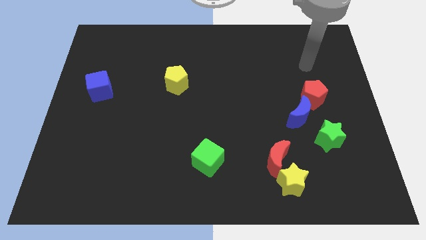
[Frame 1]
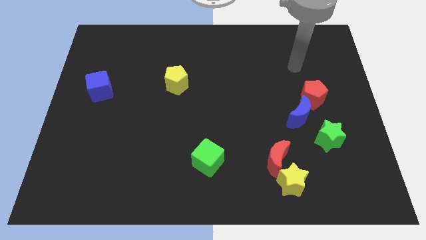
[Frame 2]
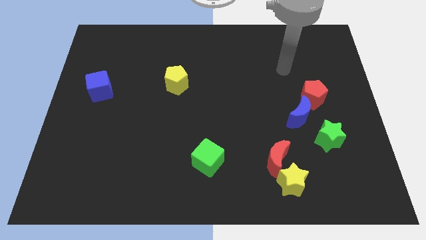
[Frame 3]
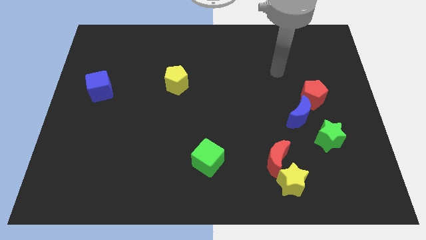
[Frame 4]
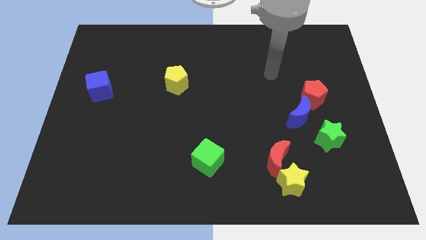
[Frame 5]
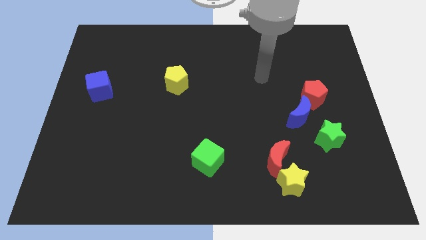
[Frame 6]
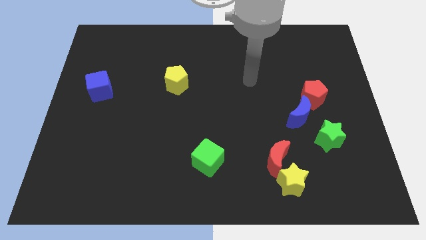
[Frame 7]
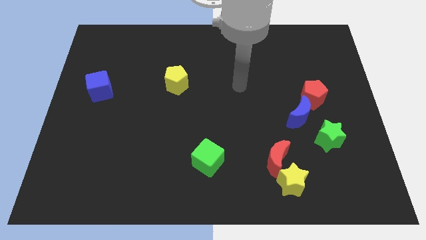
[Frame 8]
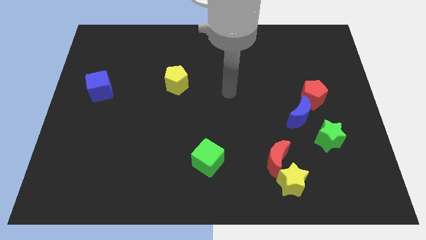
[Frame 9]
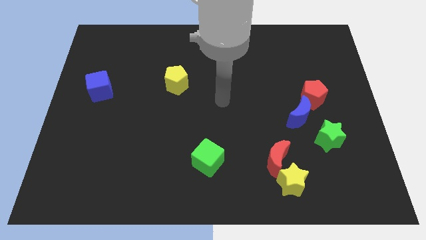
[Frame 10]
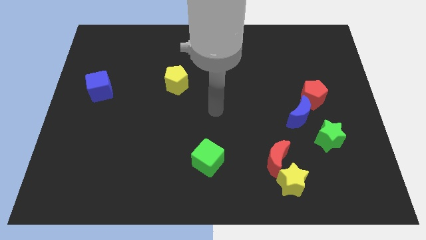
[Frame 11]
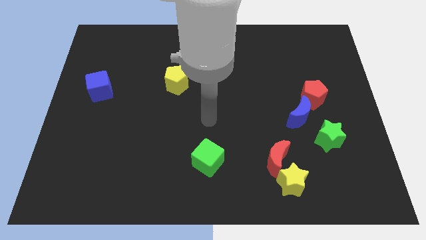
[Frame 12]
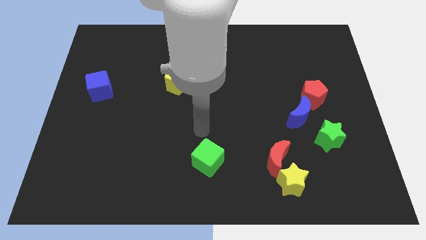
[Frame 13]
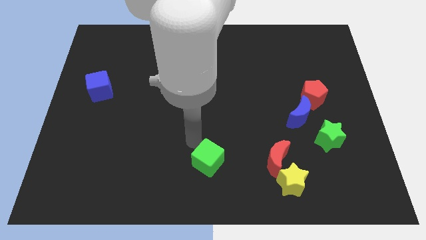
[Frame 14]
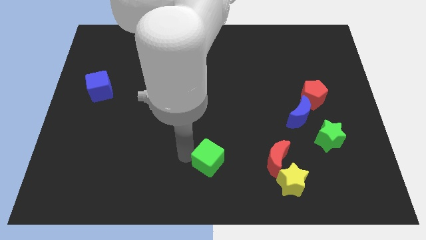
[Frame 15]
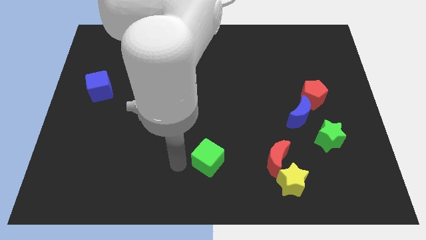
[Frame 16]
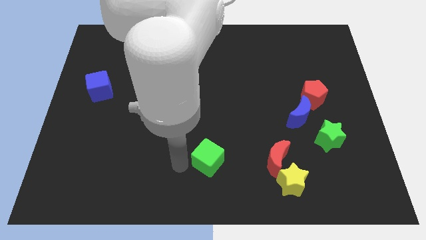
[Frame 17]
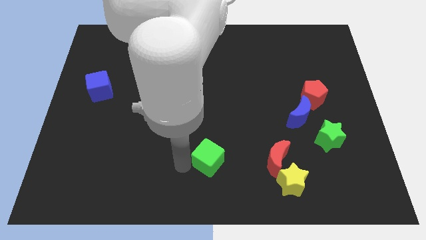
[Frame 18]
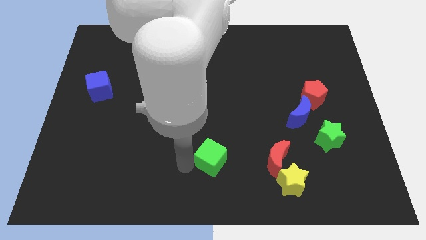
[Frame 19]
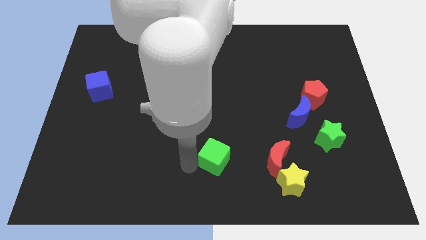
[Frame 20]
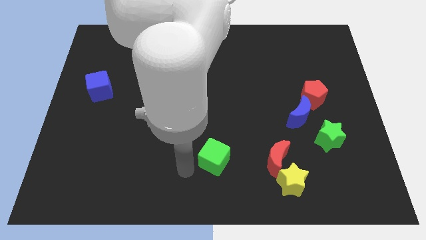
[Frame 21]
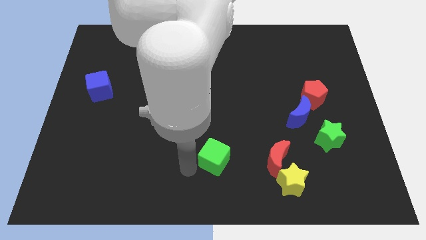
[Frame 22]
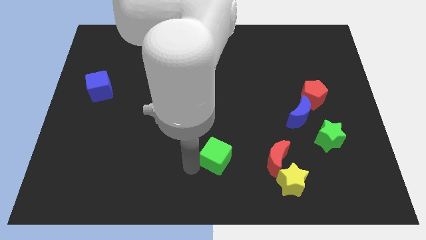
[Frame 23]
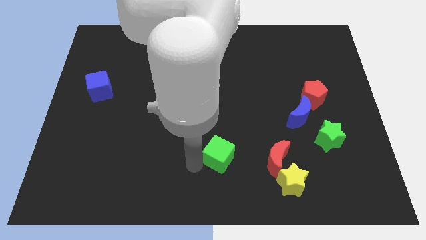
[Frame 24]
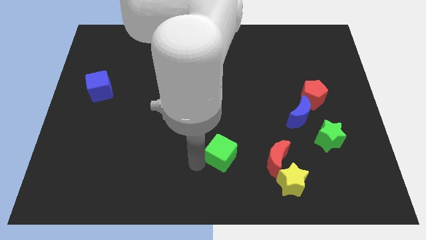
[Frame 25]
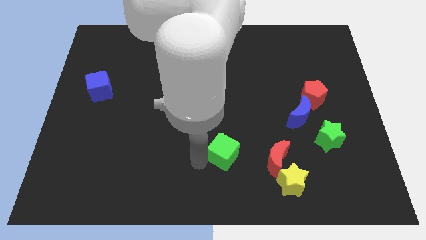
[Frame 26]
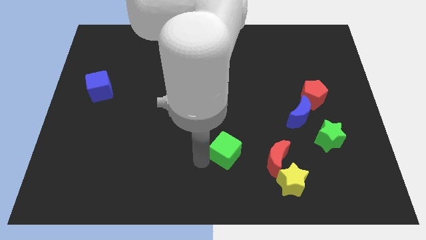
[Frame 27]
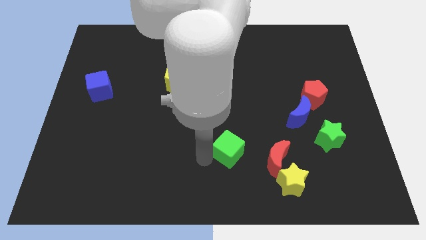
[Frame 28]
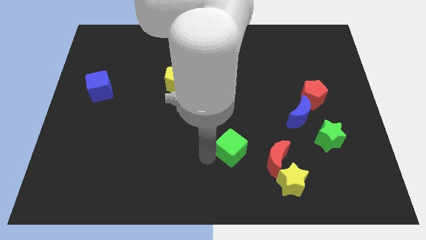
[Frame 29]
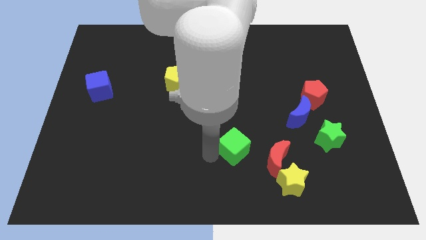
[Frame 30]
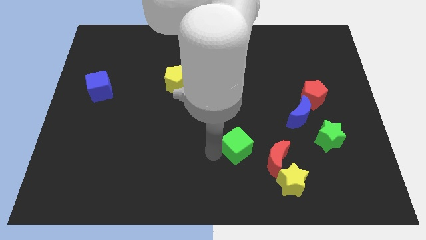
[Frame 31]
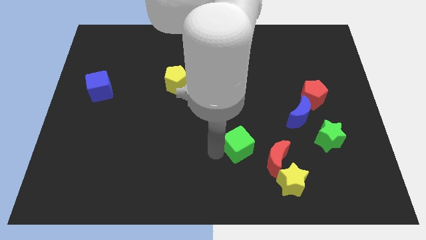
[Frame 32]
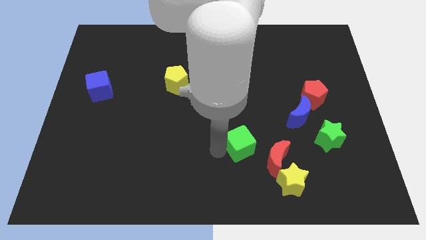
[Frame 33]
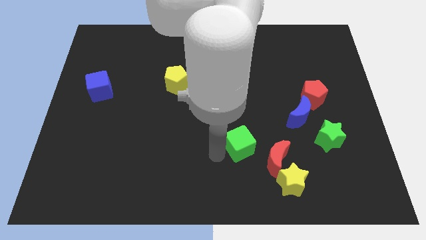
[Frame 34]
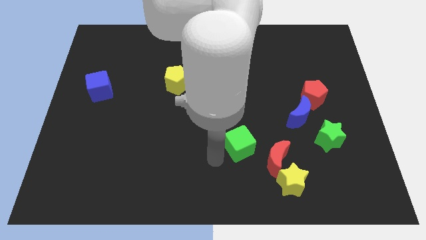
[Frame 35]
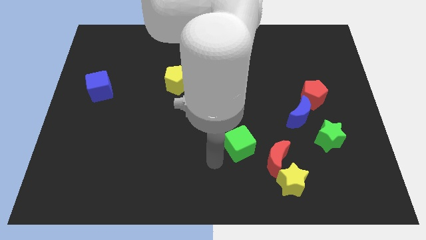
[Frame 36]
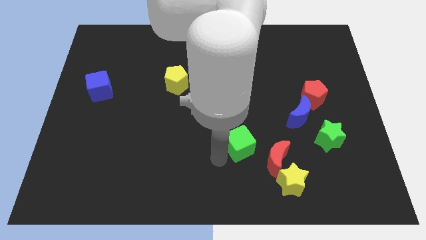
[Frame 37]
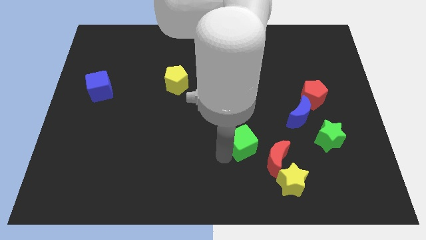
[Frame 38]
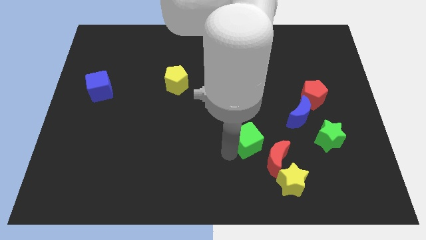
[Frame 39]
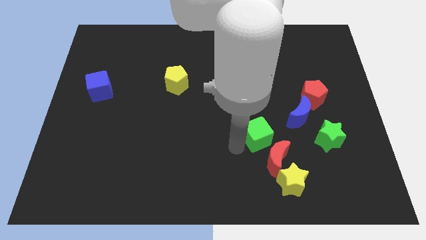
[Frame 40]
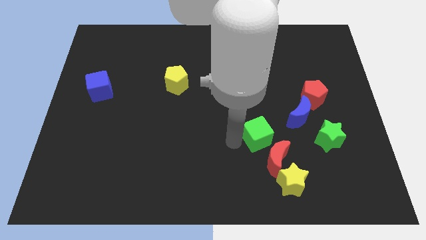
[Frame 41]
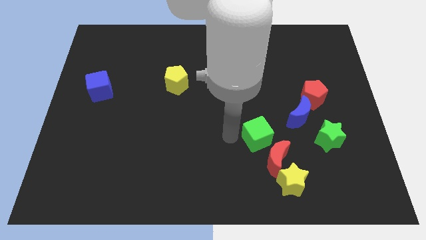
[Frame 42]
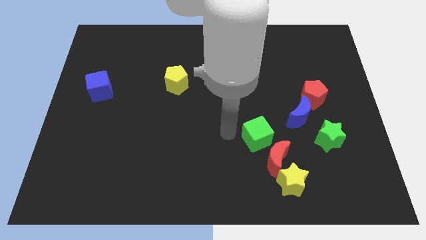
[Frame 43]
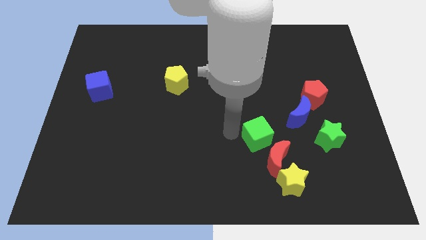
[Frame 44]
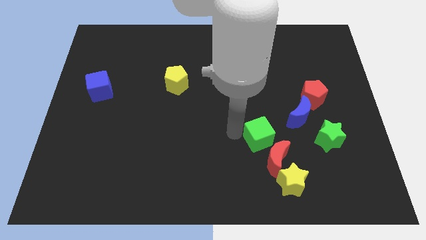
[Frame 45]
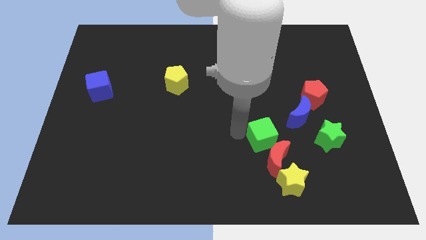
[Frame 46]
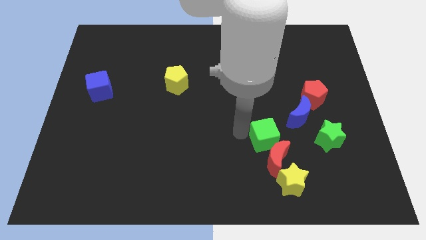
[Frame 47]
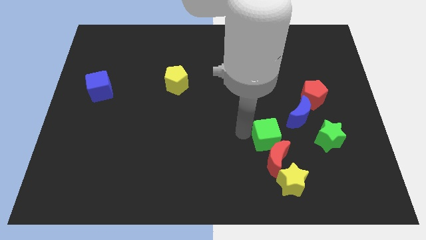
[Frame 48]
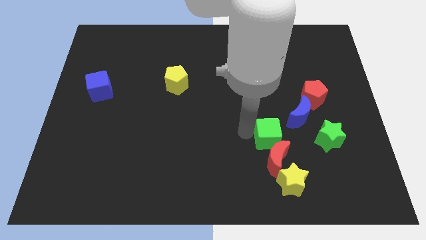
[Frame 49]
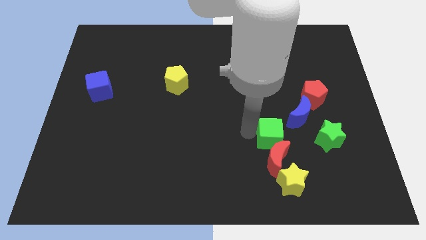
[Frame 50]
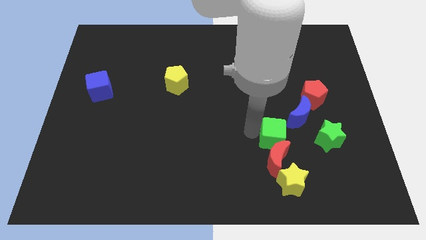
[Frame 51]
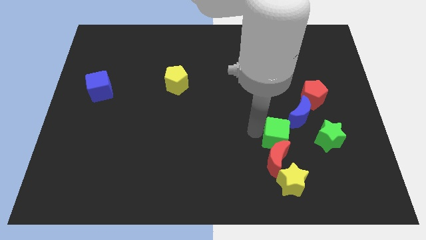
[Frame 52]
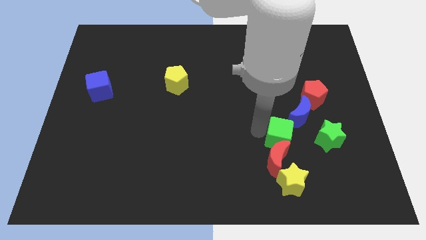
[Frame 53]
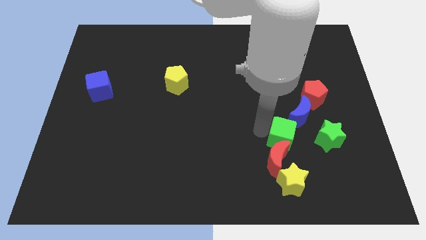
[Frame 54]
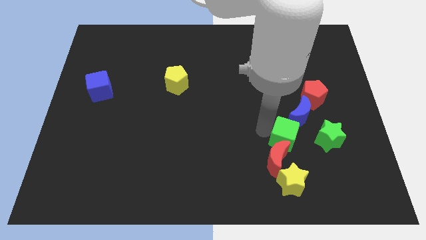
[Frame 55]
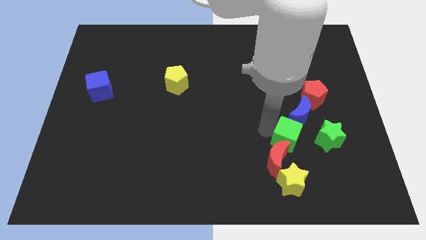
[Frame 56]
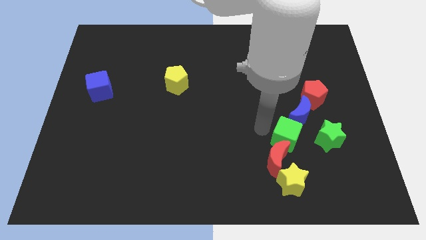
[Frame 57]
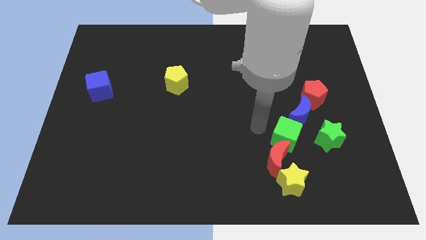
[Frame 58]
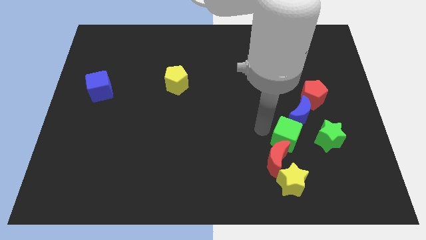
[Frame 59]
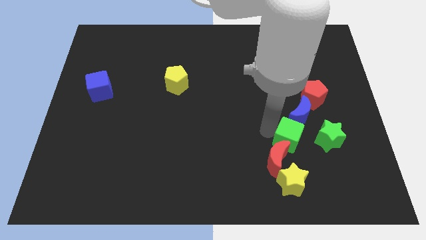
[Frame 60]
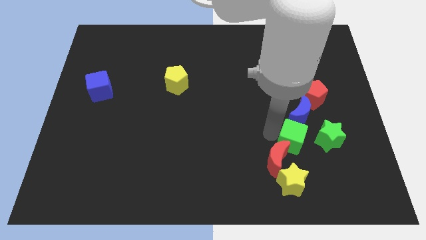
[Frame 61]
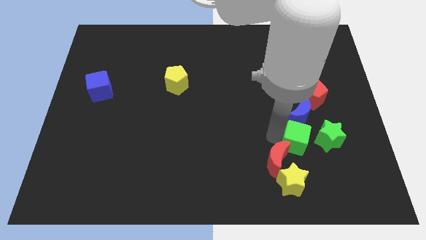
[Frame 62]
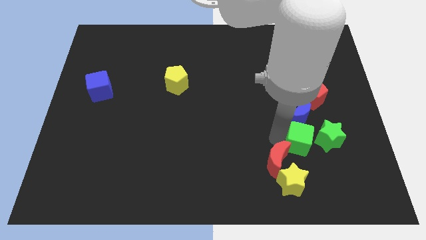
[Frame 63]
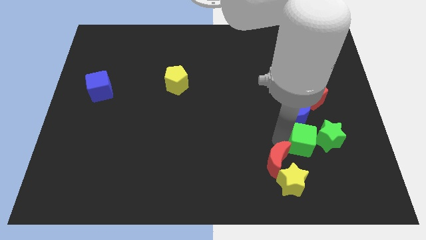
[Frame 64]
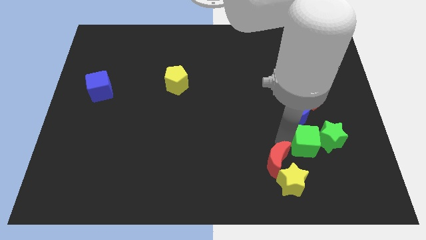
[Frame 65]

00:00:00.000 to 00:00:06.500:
slide the green cube close to the green star
